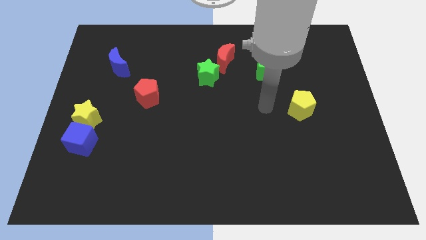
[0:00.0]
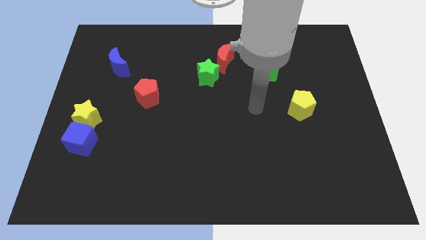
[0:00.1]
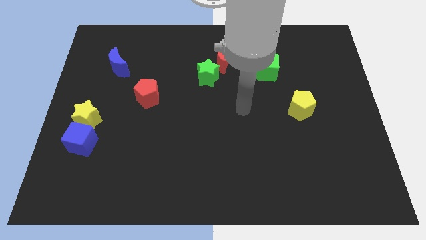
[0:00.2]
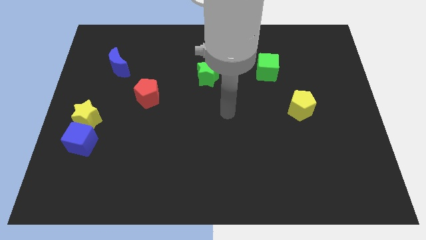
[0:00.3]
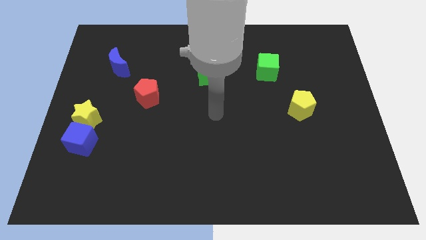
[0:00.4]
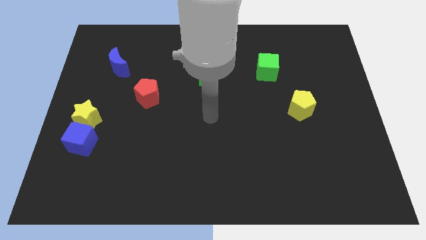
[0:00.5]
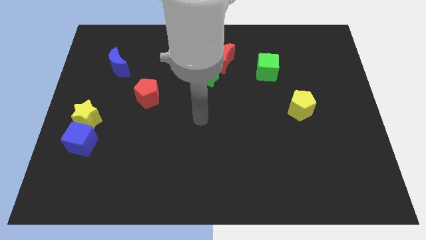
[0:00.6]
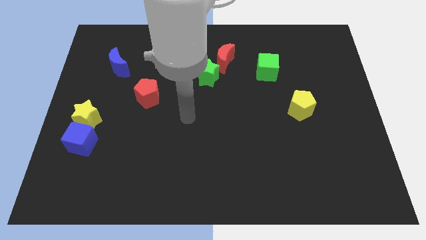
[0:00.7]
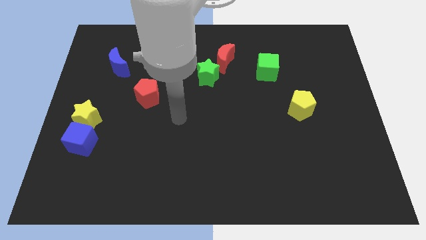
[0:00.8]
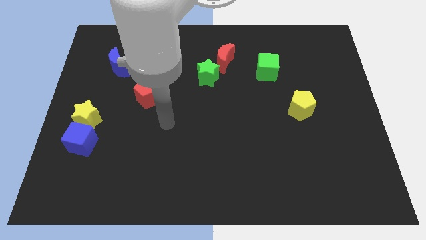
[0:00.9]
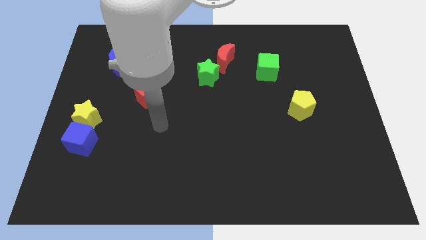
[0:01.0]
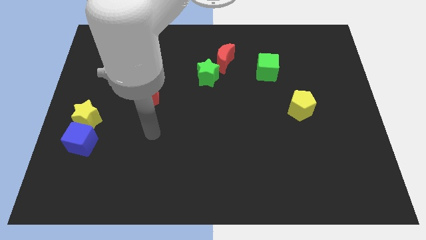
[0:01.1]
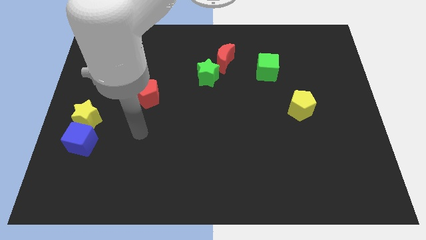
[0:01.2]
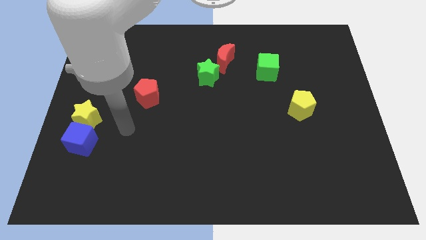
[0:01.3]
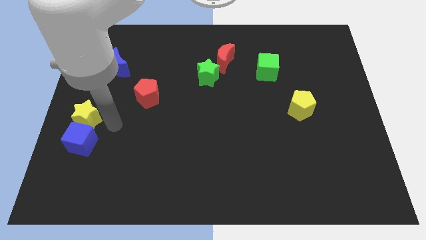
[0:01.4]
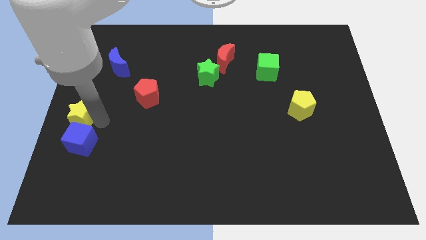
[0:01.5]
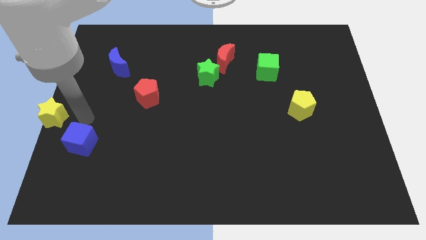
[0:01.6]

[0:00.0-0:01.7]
pull the blue cube apart from the yellow star

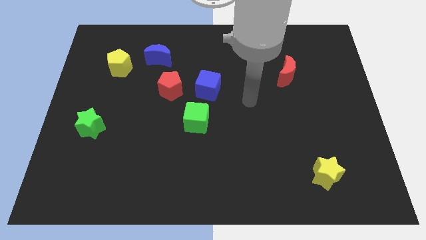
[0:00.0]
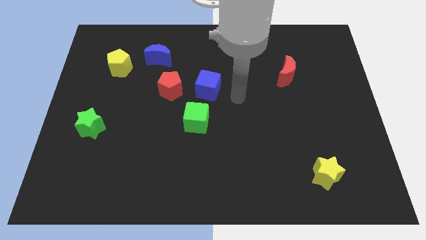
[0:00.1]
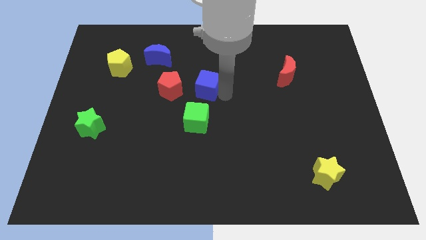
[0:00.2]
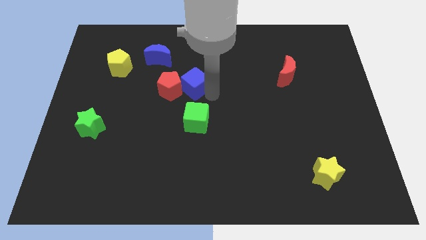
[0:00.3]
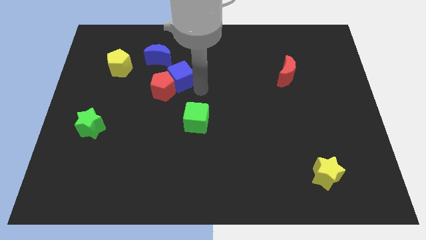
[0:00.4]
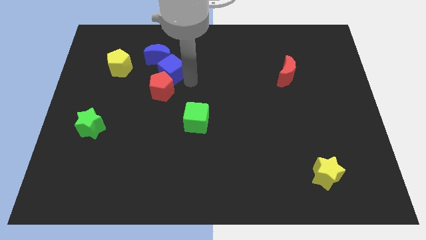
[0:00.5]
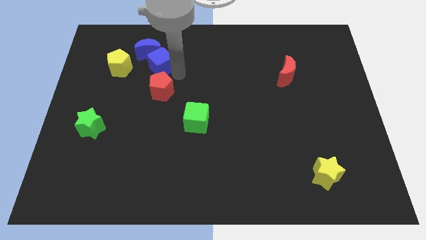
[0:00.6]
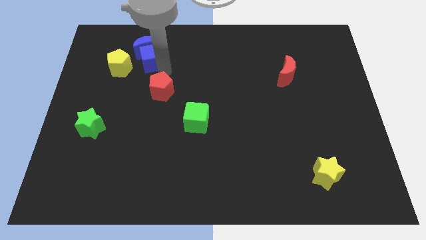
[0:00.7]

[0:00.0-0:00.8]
move the red pentagon away from the blue cube

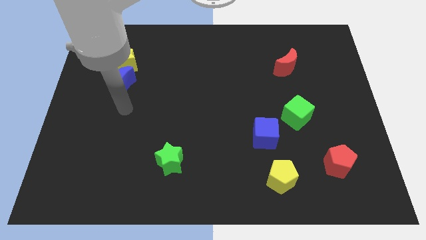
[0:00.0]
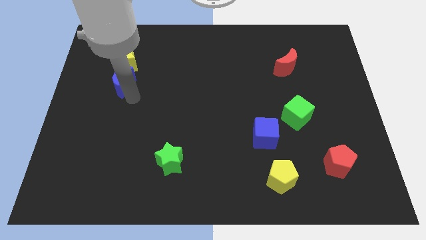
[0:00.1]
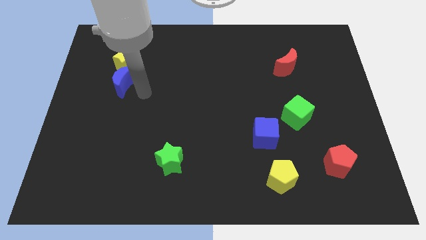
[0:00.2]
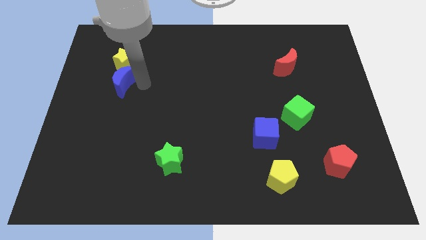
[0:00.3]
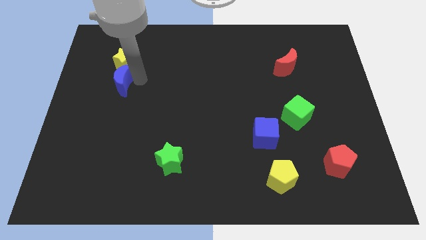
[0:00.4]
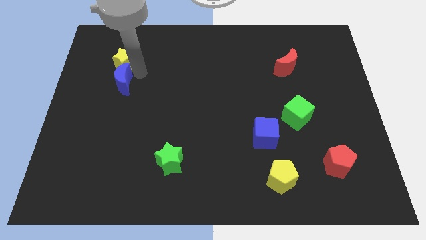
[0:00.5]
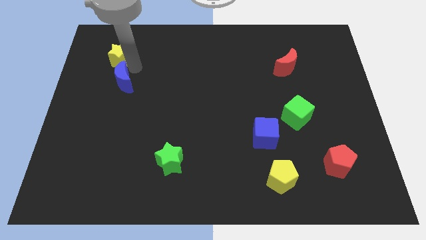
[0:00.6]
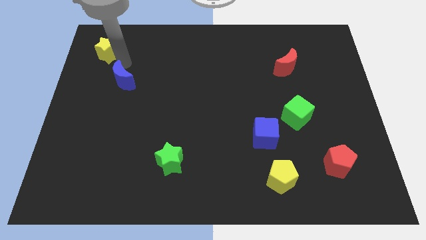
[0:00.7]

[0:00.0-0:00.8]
pull the blue moon apart from the yellow star

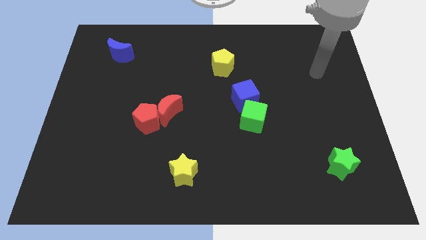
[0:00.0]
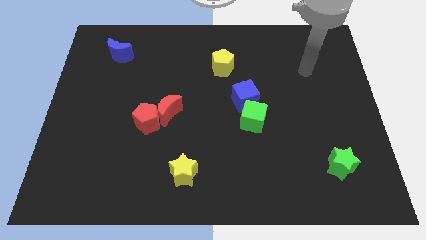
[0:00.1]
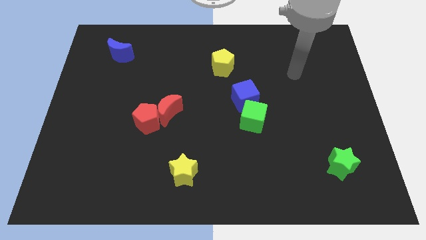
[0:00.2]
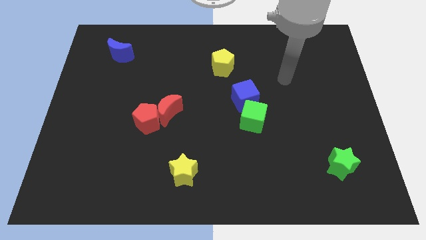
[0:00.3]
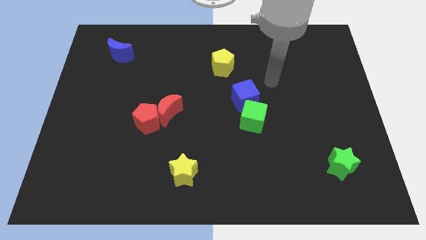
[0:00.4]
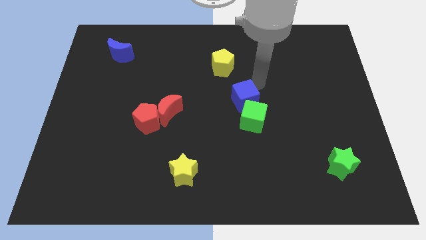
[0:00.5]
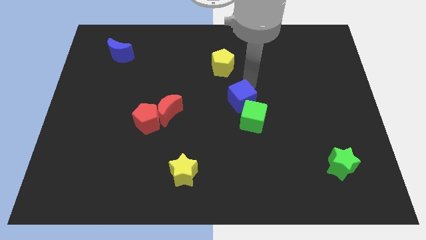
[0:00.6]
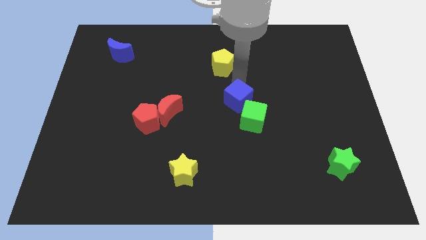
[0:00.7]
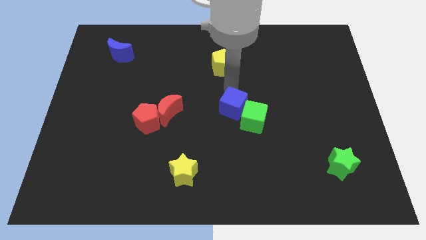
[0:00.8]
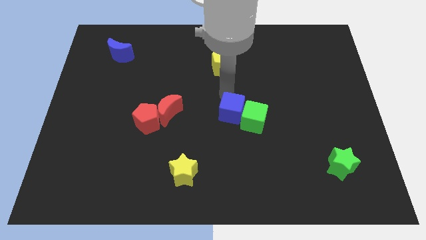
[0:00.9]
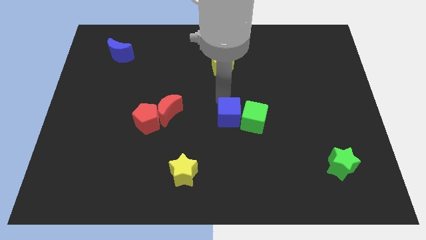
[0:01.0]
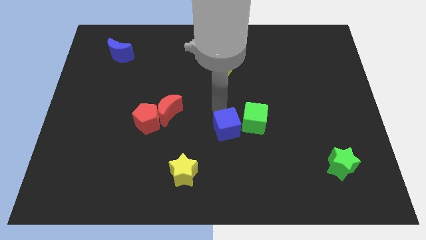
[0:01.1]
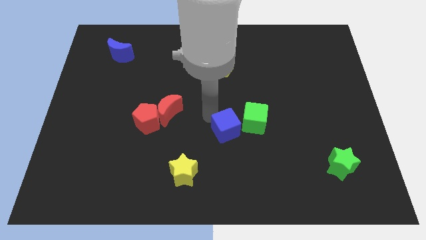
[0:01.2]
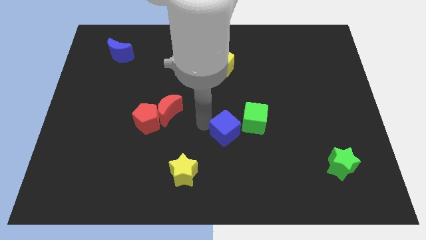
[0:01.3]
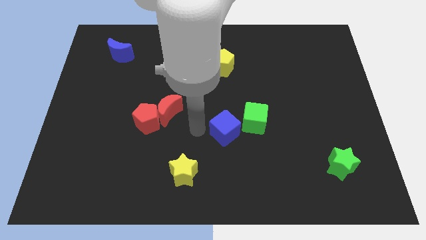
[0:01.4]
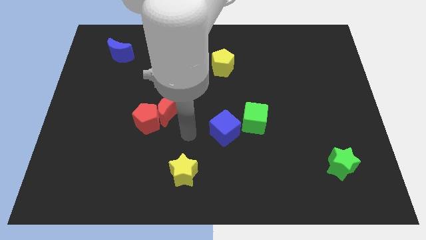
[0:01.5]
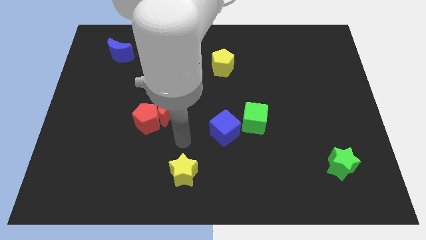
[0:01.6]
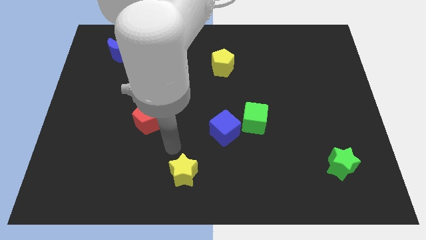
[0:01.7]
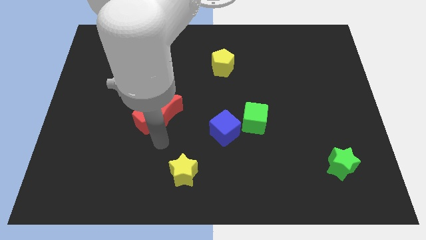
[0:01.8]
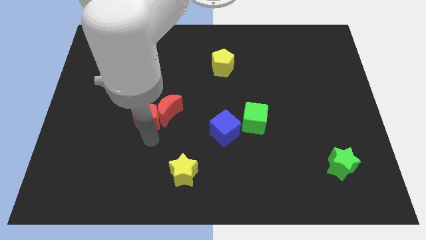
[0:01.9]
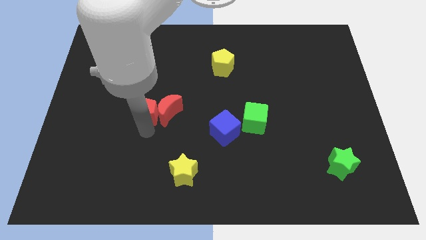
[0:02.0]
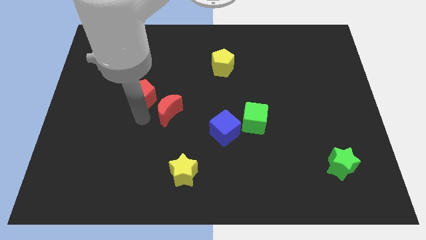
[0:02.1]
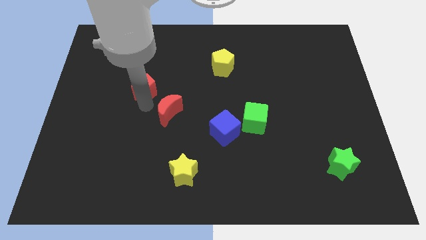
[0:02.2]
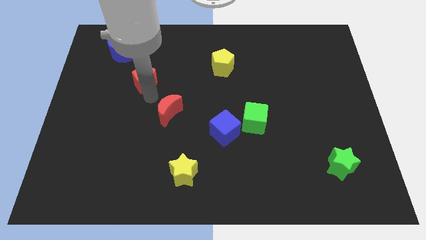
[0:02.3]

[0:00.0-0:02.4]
separate the red moon from the red pentagon

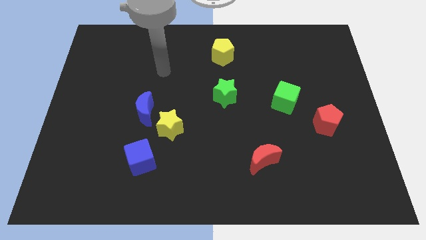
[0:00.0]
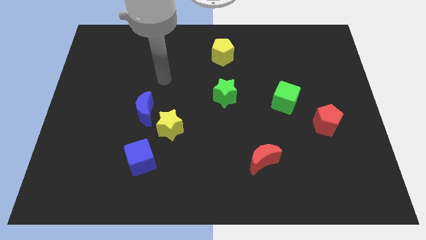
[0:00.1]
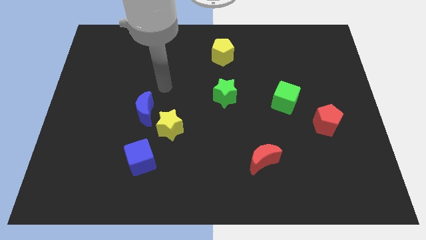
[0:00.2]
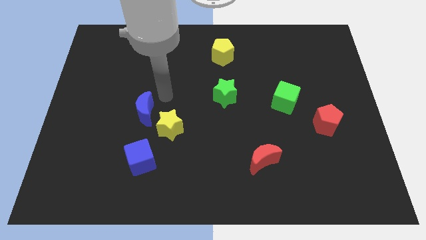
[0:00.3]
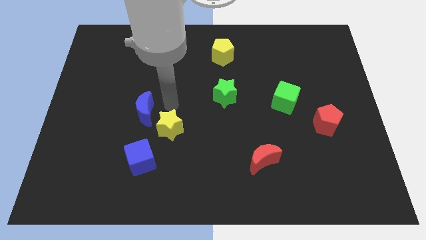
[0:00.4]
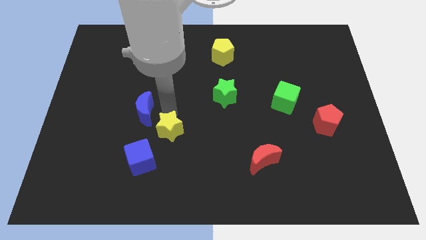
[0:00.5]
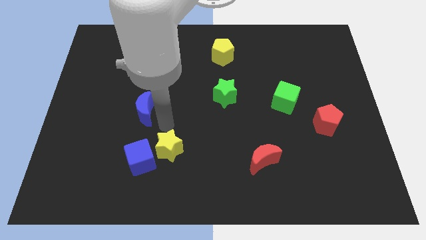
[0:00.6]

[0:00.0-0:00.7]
separate the blue moon from the yellow star

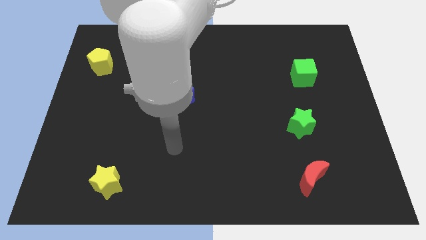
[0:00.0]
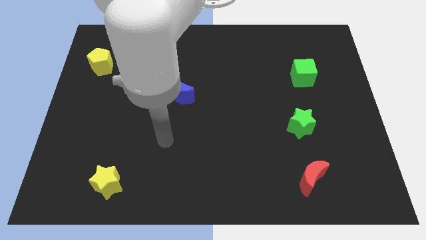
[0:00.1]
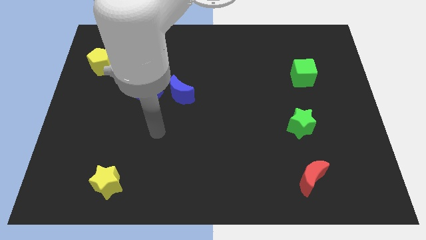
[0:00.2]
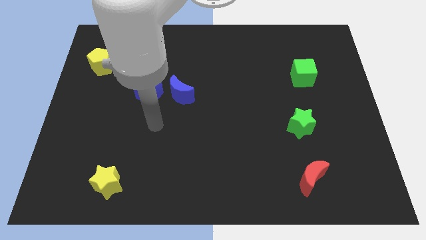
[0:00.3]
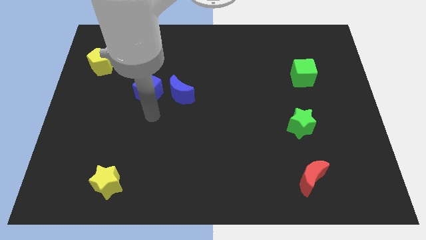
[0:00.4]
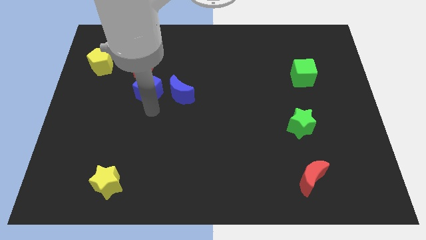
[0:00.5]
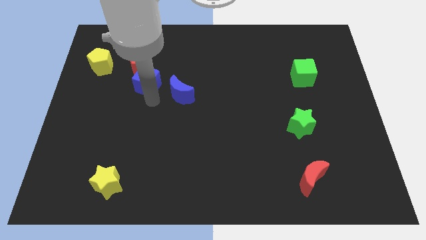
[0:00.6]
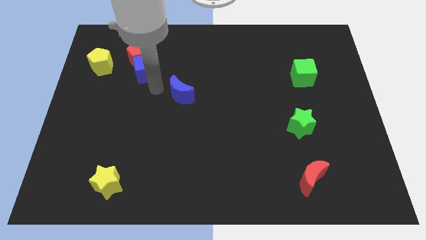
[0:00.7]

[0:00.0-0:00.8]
separate the blue moon from the blue cube

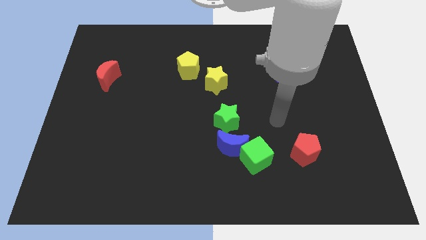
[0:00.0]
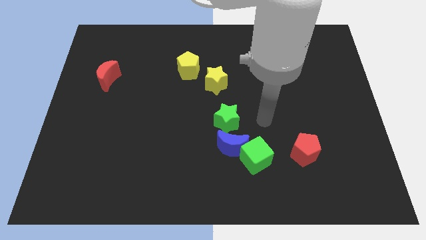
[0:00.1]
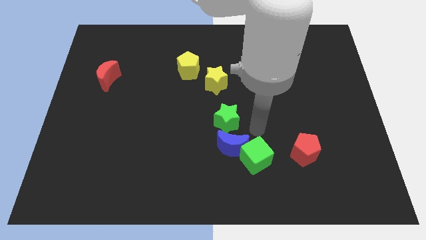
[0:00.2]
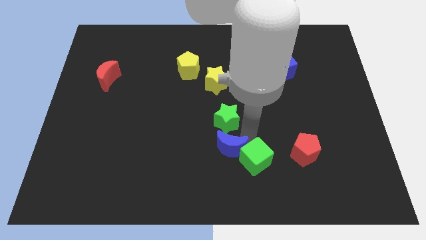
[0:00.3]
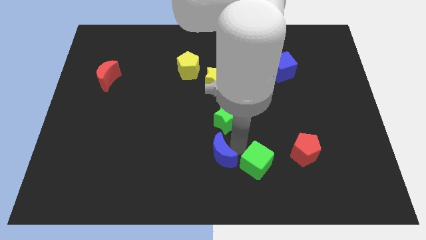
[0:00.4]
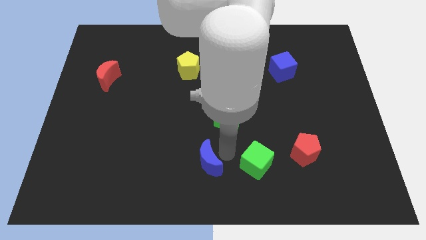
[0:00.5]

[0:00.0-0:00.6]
move the green cube away from the blue moon

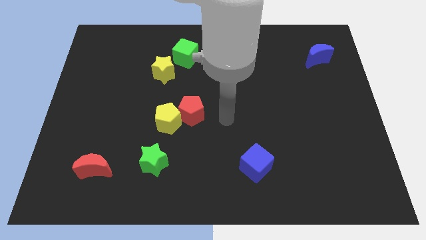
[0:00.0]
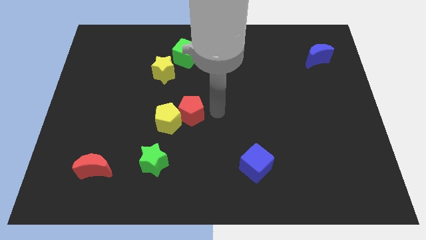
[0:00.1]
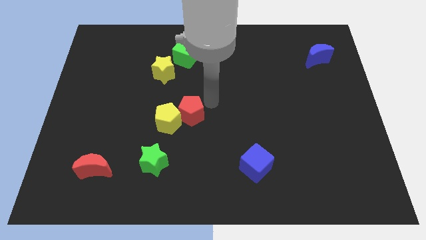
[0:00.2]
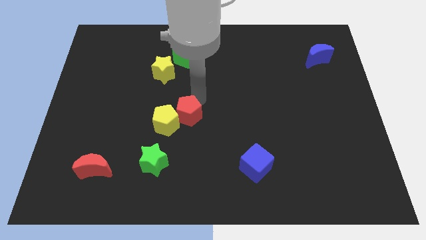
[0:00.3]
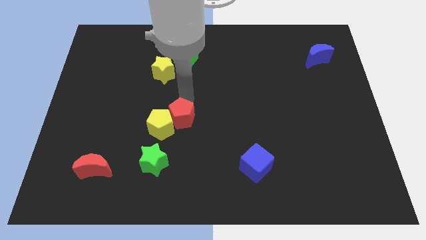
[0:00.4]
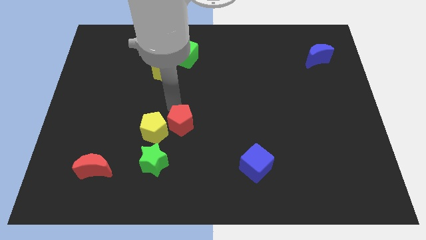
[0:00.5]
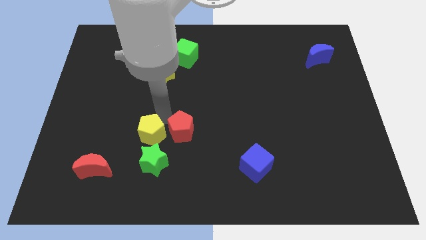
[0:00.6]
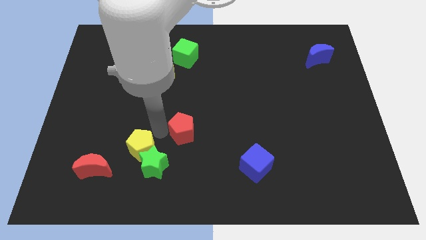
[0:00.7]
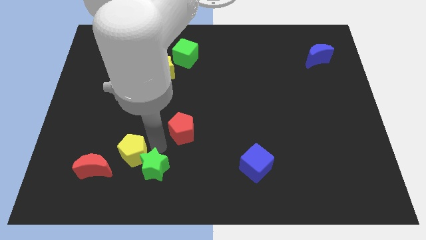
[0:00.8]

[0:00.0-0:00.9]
move the red pentagon away from the yellow pentagon

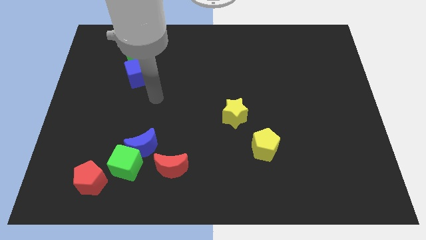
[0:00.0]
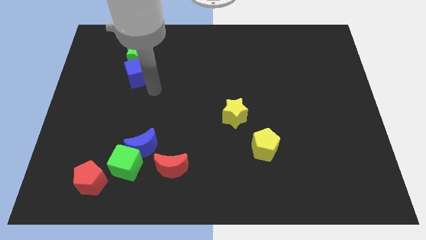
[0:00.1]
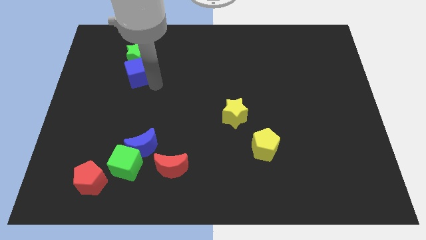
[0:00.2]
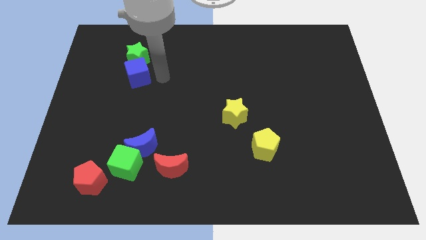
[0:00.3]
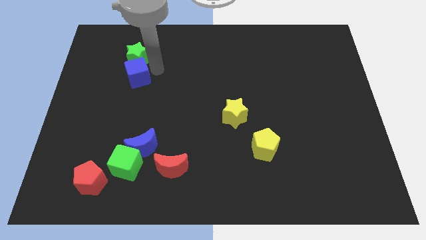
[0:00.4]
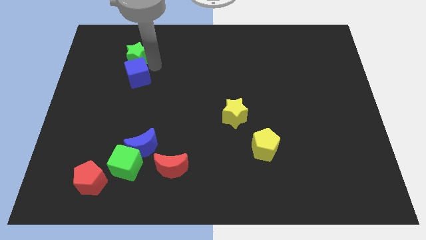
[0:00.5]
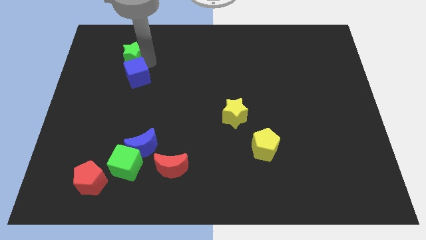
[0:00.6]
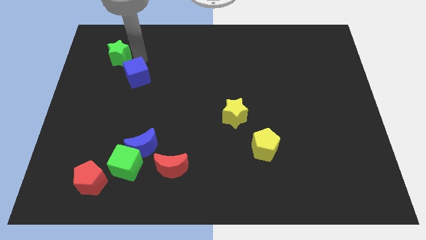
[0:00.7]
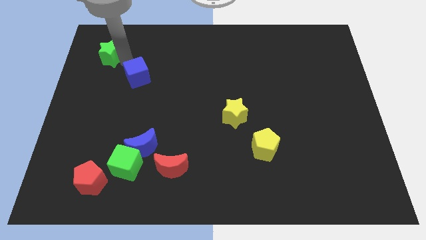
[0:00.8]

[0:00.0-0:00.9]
move the blue cube away from the green star
